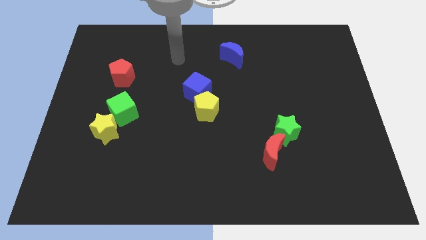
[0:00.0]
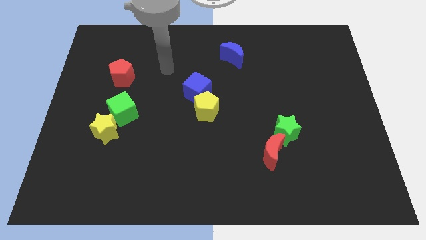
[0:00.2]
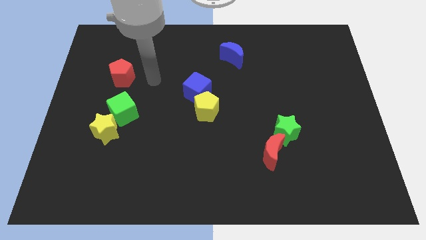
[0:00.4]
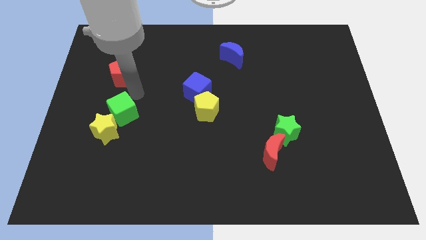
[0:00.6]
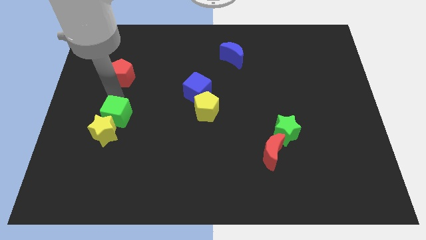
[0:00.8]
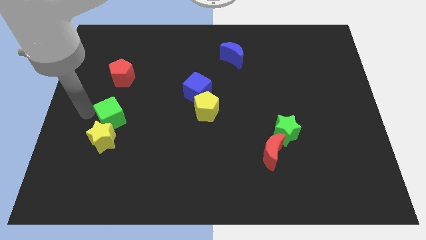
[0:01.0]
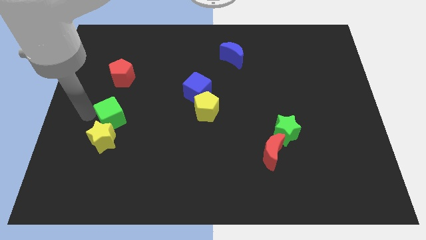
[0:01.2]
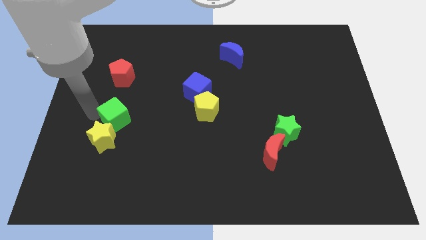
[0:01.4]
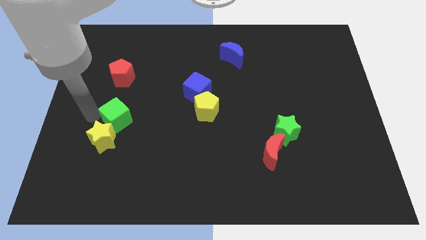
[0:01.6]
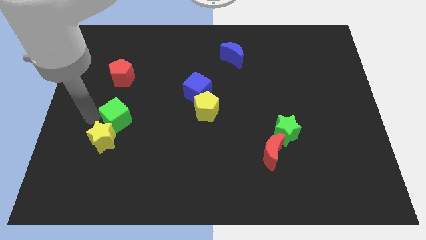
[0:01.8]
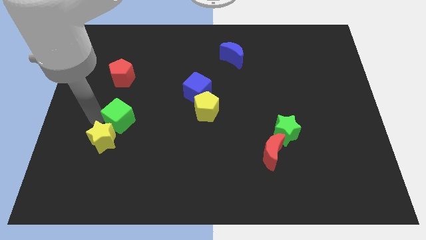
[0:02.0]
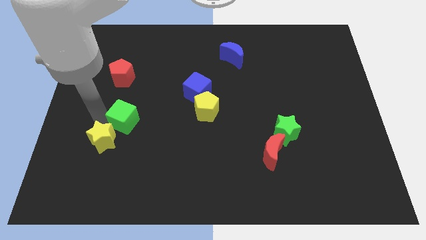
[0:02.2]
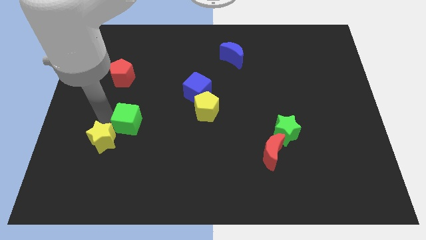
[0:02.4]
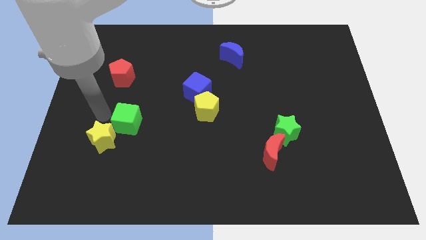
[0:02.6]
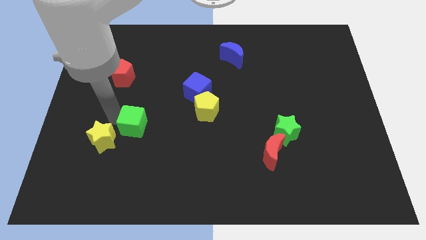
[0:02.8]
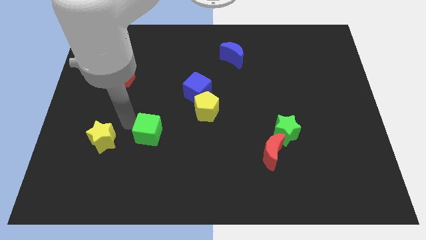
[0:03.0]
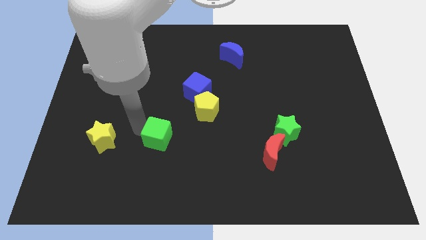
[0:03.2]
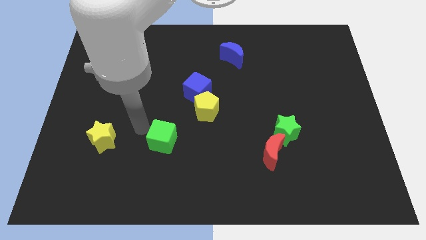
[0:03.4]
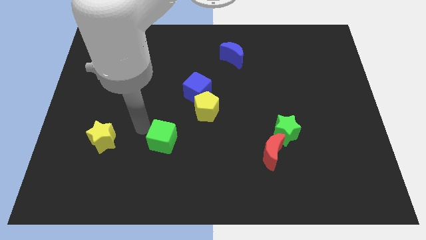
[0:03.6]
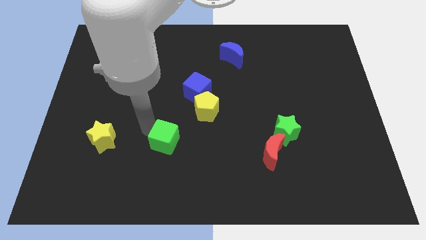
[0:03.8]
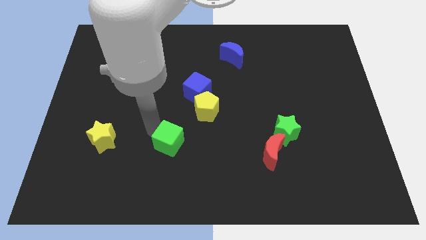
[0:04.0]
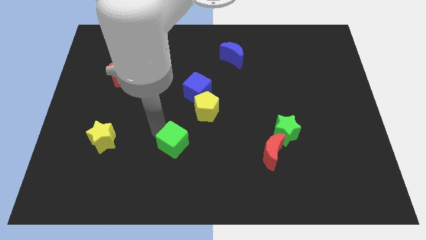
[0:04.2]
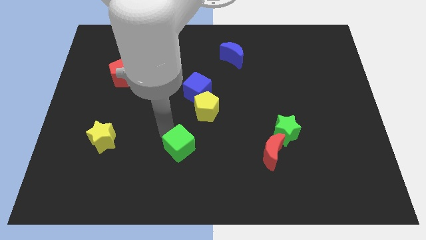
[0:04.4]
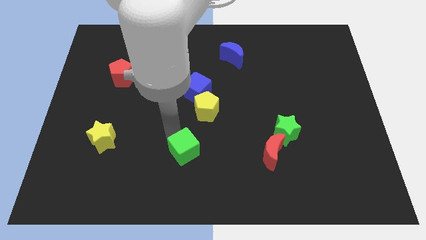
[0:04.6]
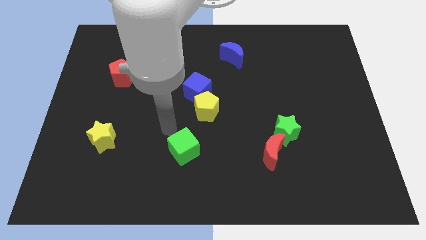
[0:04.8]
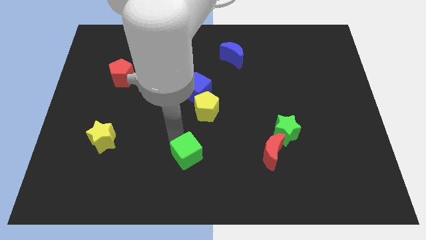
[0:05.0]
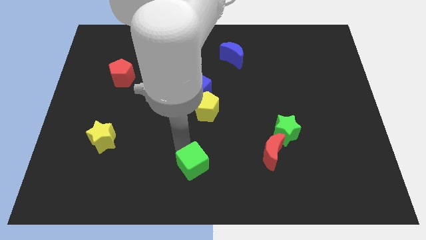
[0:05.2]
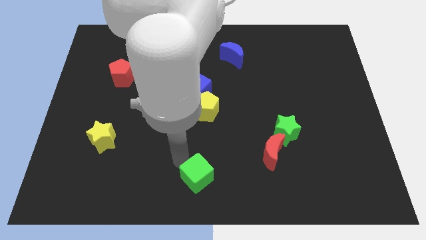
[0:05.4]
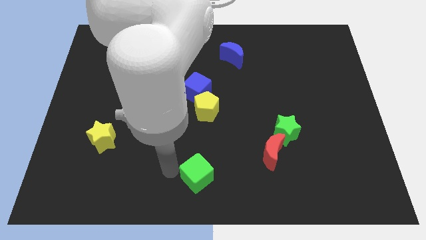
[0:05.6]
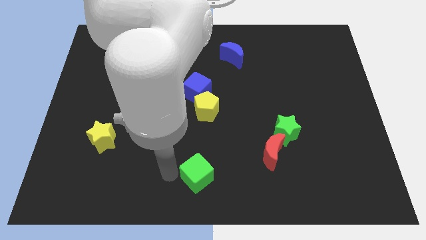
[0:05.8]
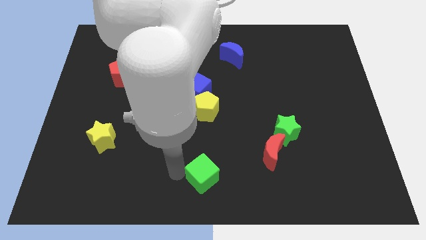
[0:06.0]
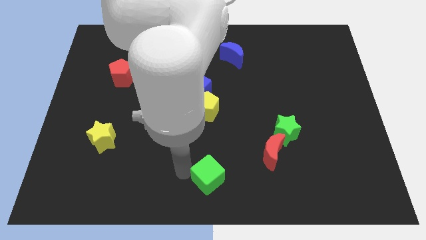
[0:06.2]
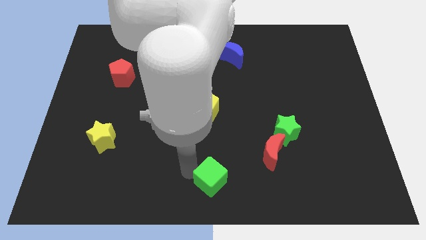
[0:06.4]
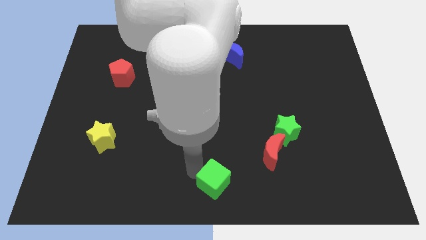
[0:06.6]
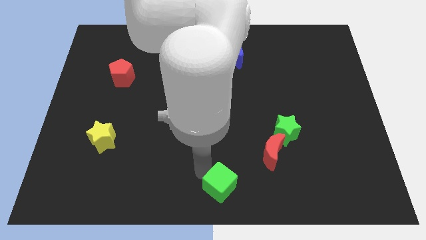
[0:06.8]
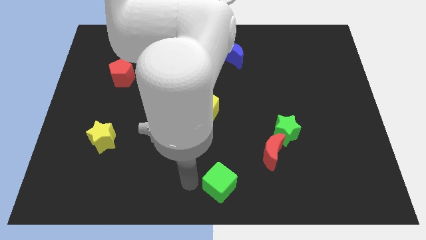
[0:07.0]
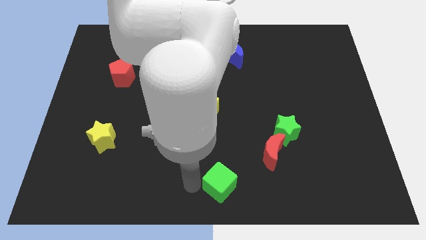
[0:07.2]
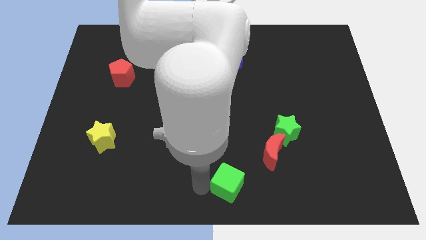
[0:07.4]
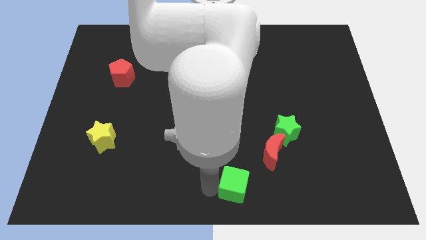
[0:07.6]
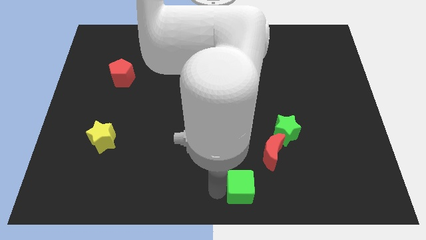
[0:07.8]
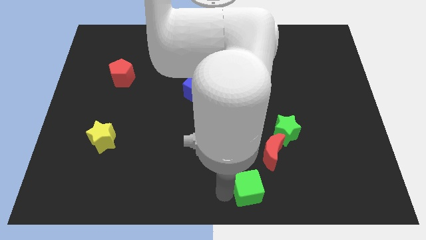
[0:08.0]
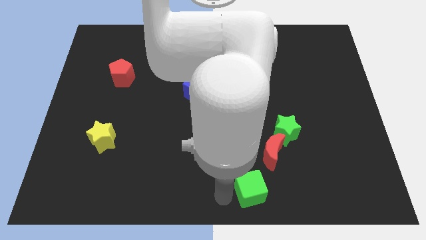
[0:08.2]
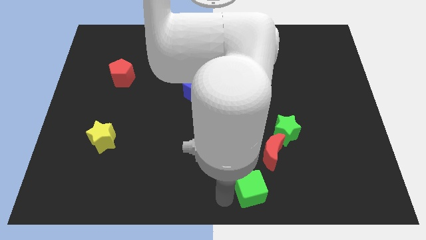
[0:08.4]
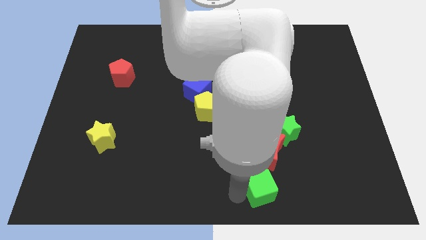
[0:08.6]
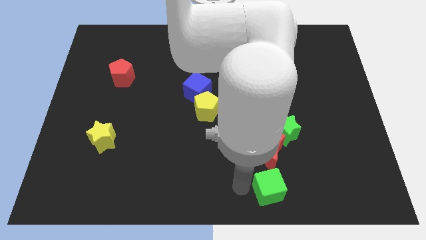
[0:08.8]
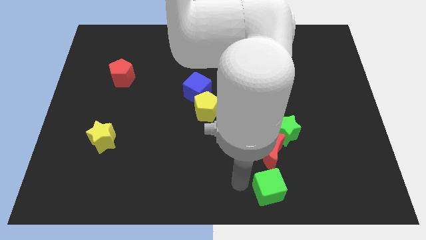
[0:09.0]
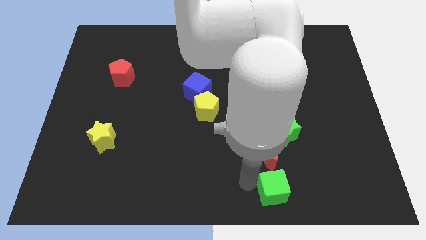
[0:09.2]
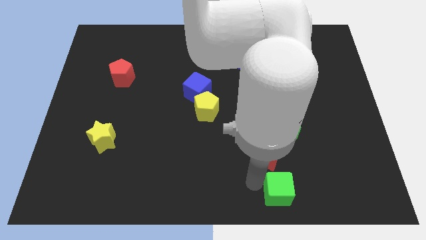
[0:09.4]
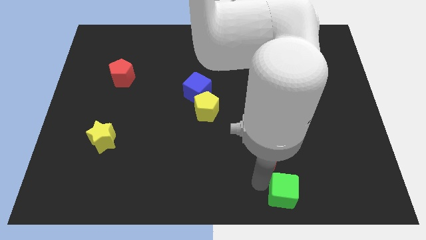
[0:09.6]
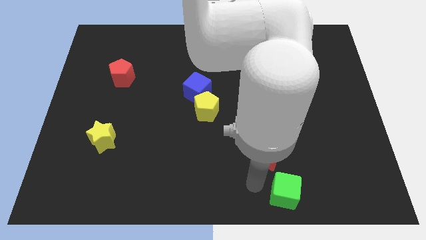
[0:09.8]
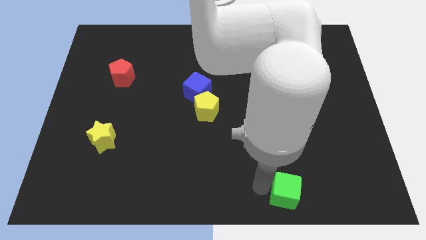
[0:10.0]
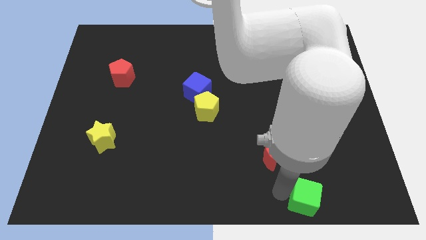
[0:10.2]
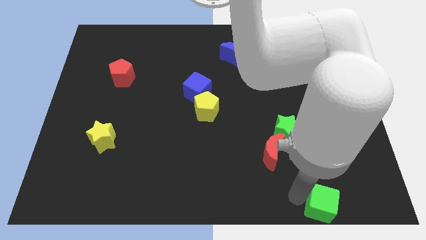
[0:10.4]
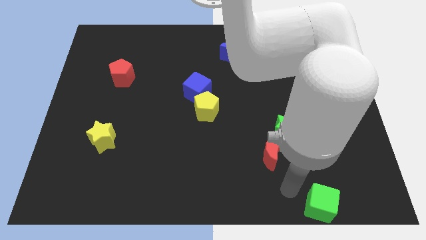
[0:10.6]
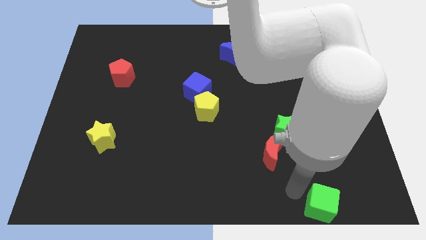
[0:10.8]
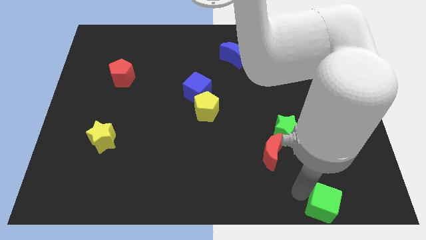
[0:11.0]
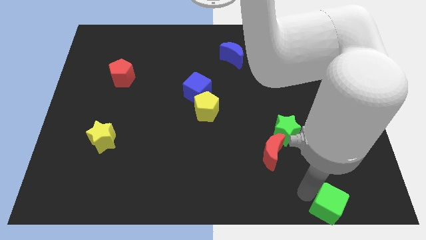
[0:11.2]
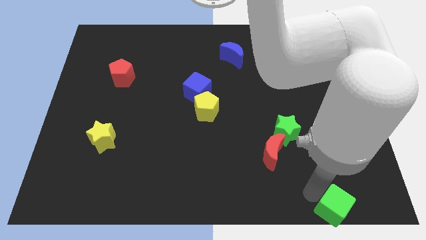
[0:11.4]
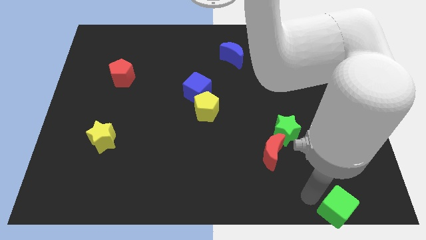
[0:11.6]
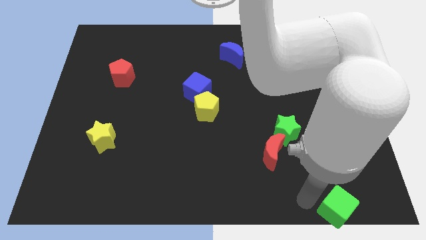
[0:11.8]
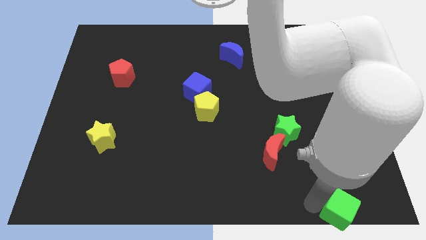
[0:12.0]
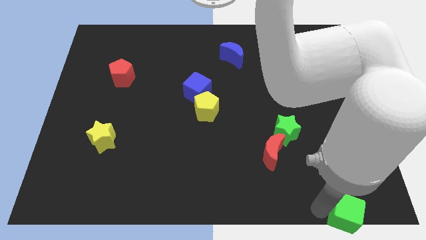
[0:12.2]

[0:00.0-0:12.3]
put the green cube to the lower right corner
